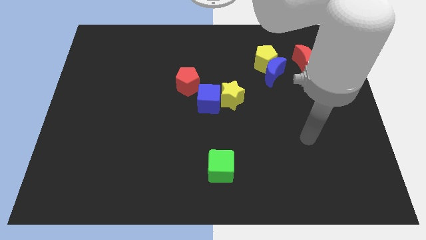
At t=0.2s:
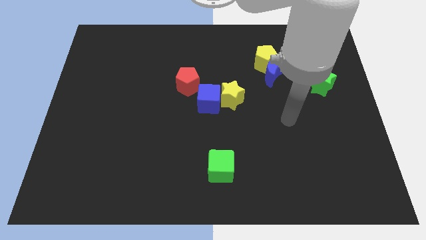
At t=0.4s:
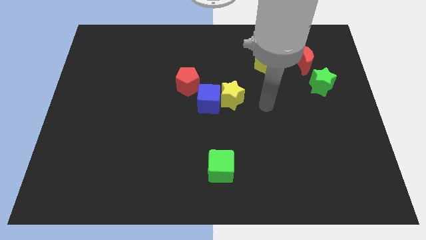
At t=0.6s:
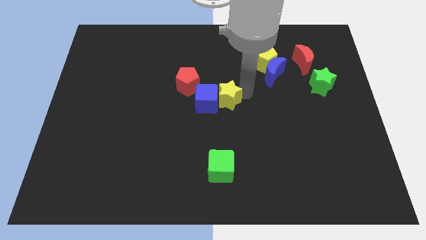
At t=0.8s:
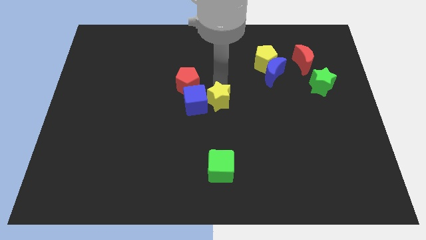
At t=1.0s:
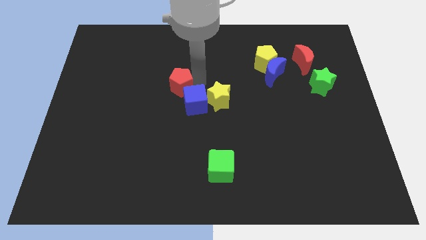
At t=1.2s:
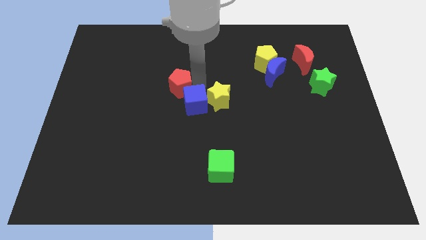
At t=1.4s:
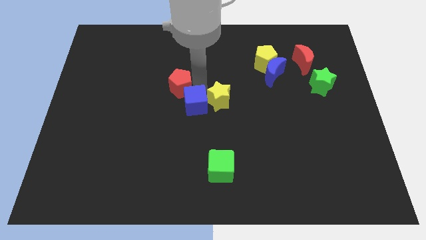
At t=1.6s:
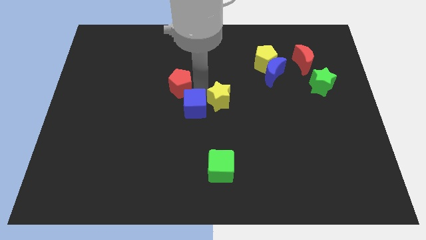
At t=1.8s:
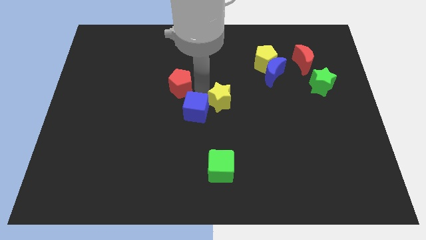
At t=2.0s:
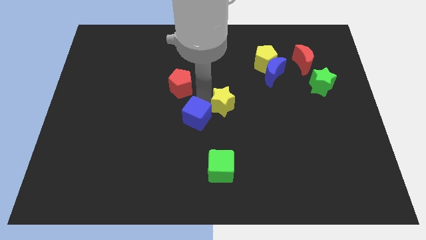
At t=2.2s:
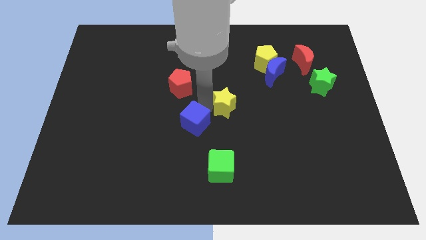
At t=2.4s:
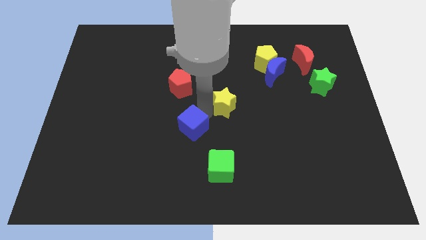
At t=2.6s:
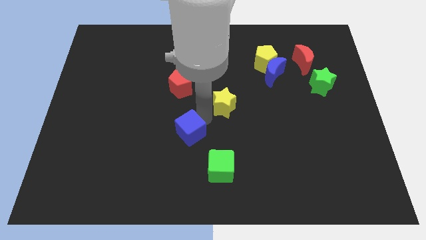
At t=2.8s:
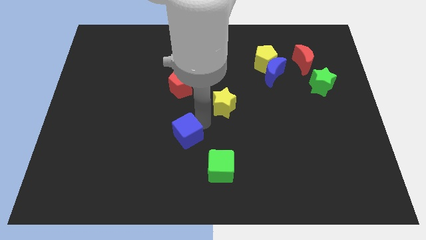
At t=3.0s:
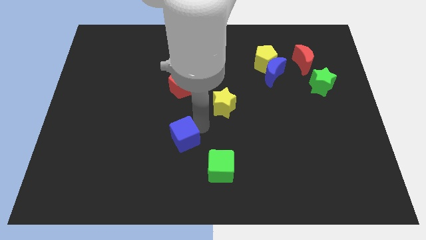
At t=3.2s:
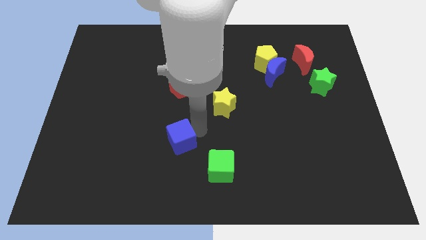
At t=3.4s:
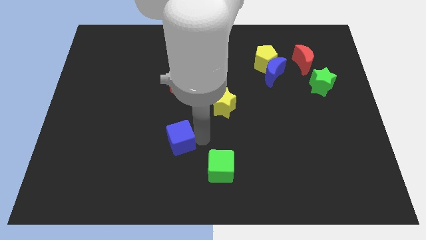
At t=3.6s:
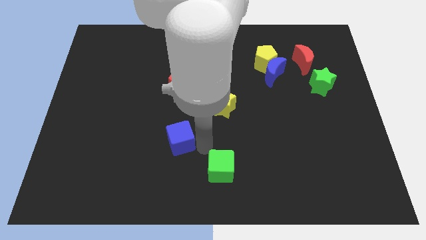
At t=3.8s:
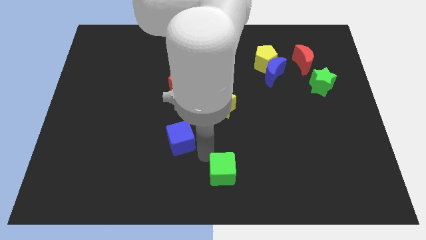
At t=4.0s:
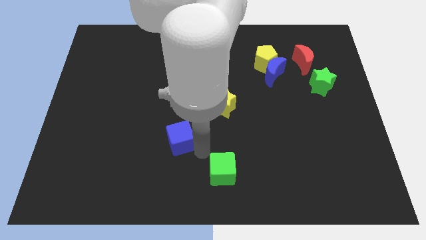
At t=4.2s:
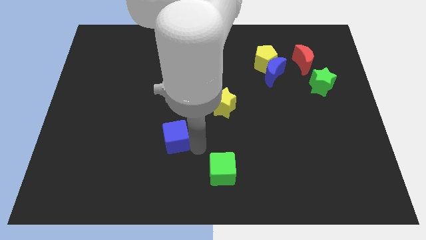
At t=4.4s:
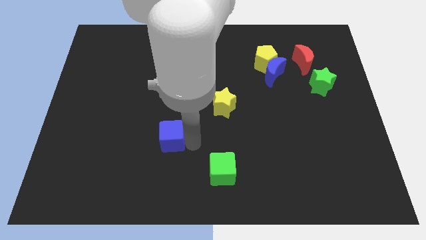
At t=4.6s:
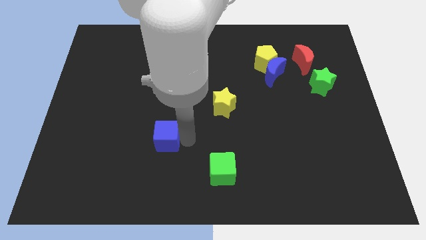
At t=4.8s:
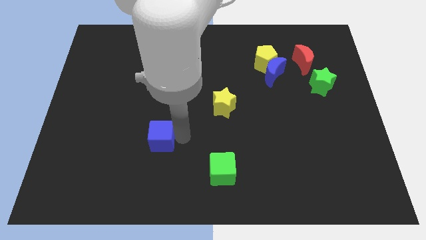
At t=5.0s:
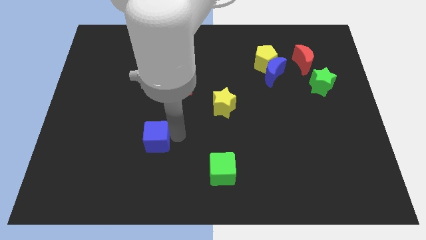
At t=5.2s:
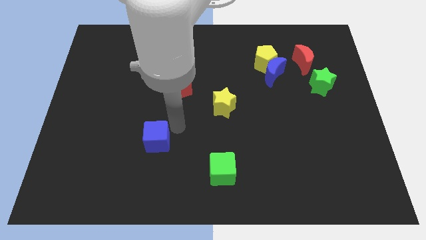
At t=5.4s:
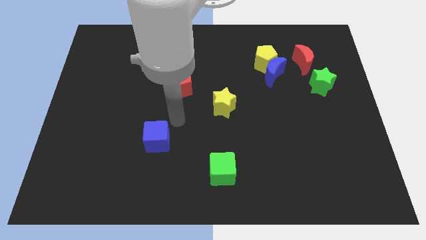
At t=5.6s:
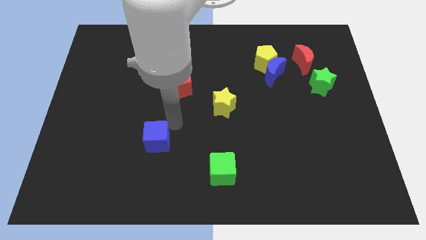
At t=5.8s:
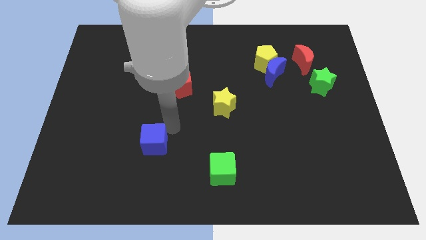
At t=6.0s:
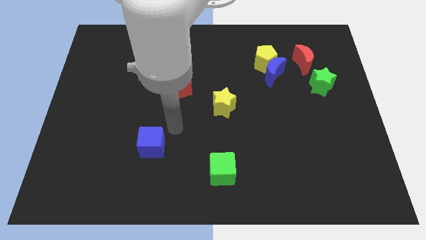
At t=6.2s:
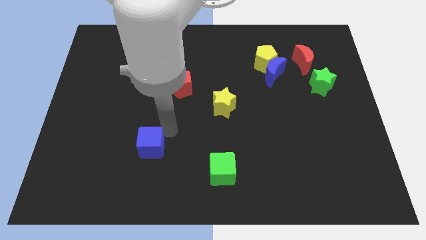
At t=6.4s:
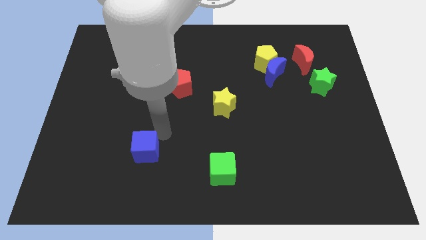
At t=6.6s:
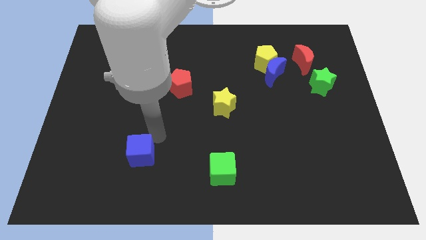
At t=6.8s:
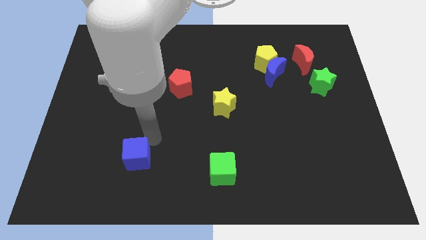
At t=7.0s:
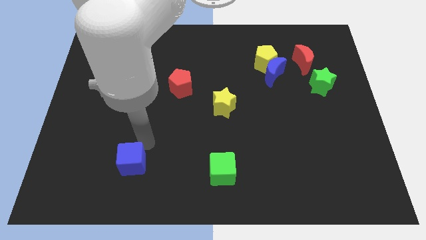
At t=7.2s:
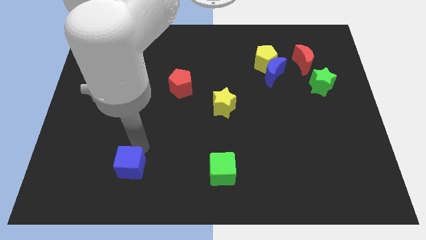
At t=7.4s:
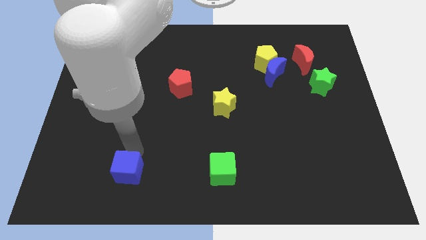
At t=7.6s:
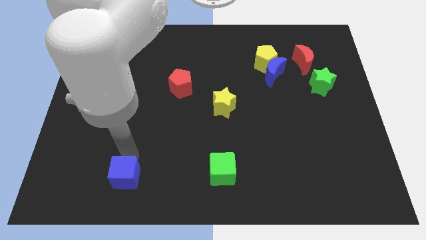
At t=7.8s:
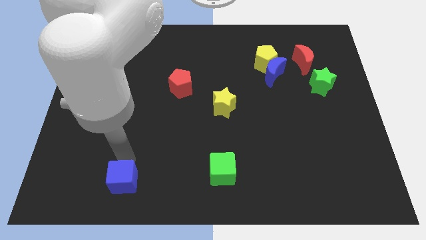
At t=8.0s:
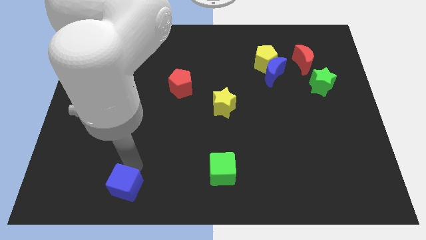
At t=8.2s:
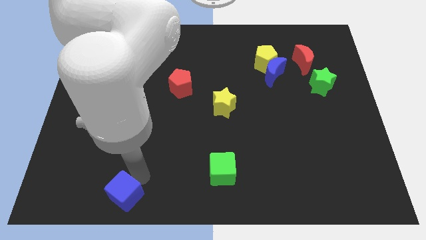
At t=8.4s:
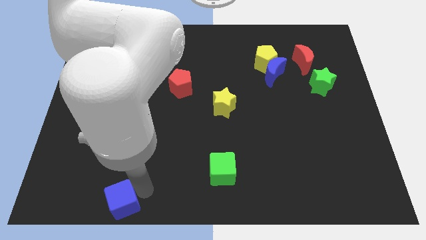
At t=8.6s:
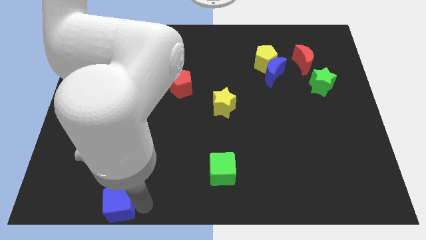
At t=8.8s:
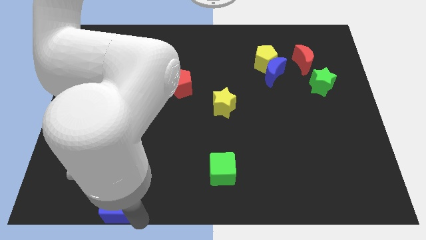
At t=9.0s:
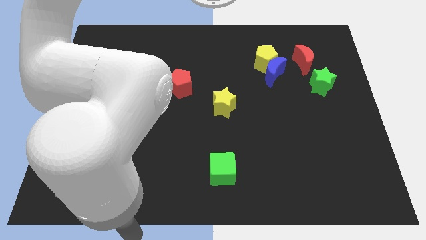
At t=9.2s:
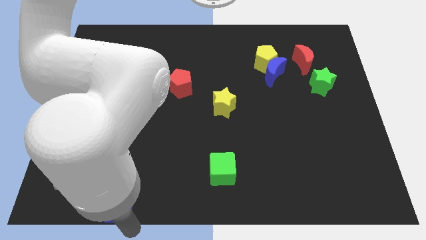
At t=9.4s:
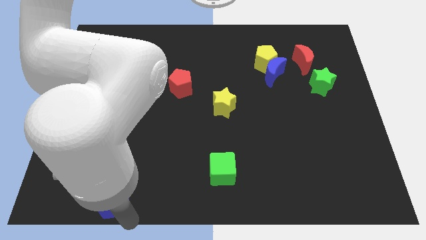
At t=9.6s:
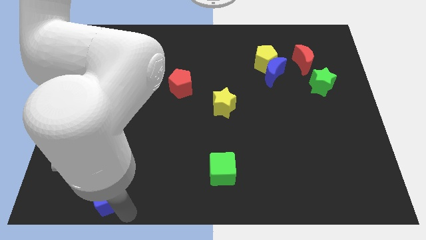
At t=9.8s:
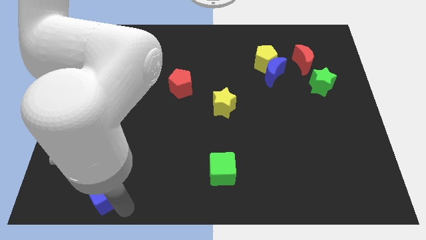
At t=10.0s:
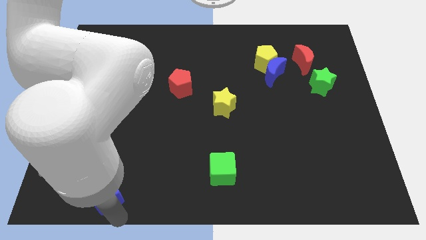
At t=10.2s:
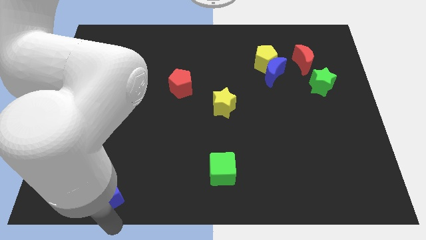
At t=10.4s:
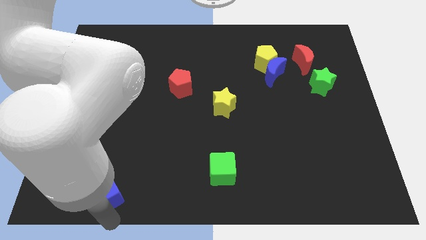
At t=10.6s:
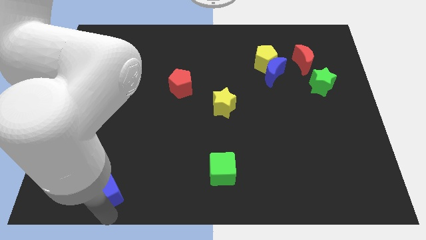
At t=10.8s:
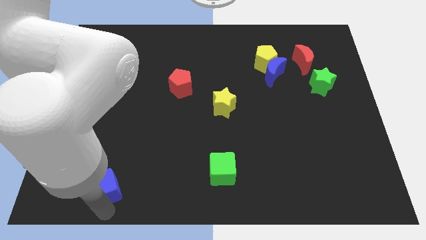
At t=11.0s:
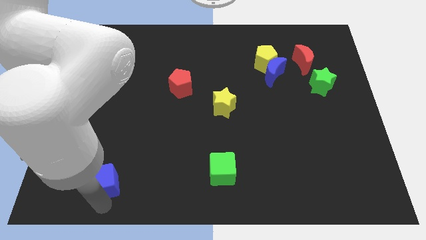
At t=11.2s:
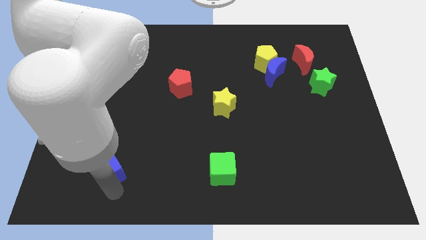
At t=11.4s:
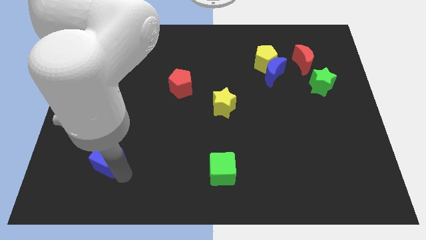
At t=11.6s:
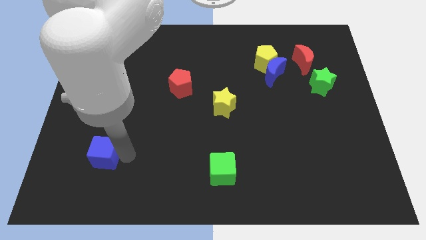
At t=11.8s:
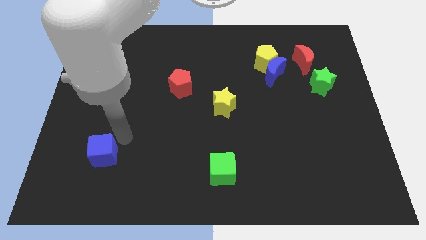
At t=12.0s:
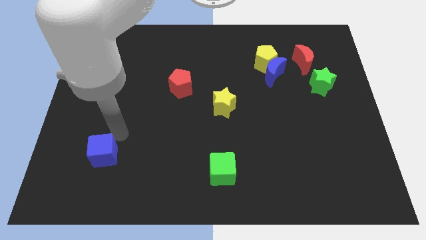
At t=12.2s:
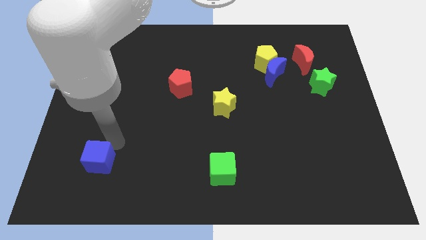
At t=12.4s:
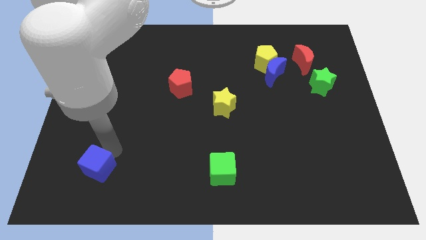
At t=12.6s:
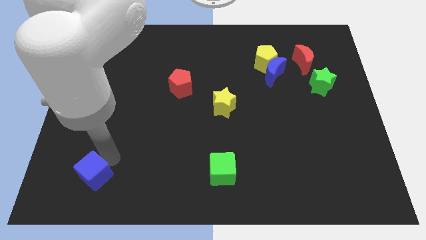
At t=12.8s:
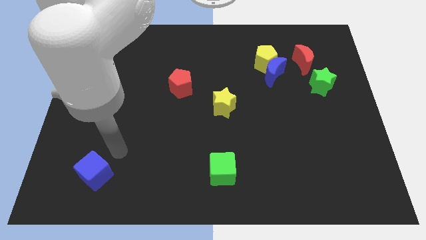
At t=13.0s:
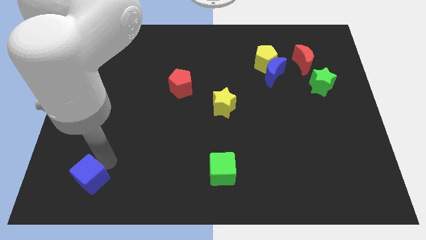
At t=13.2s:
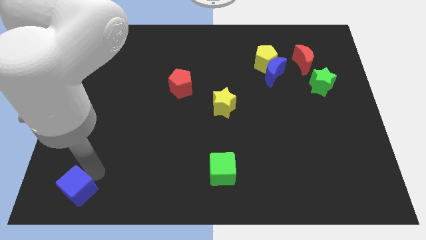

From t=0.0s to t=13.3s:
move the blue cube to the lower left corner
